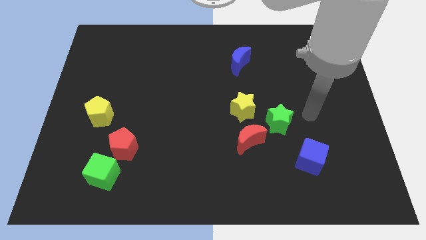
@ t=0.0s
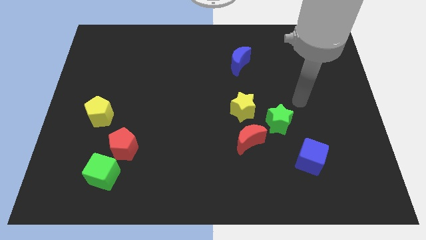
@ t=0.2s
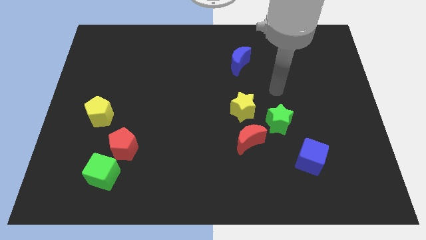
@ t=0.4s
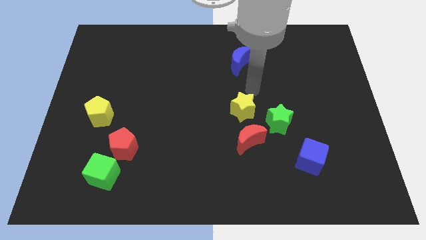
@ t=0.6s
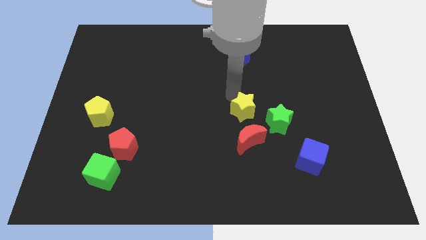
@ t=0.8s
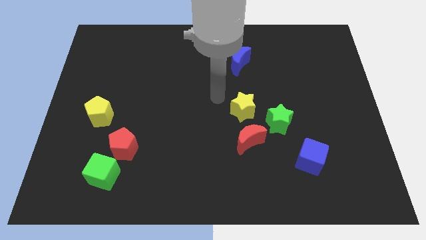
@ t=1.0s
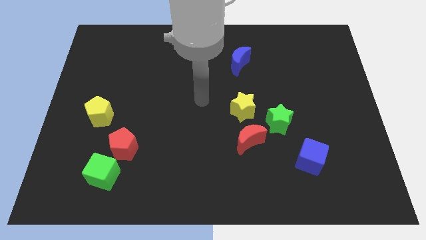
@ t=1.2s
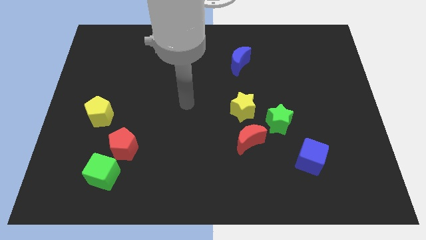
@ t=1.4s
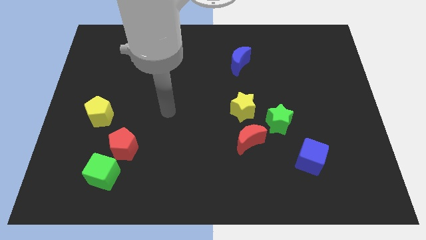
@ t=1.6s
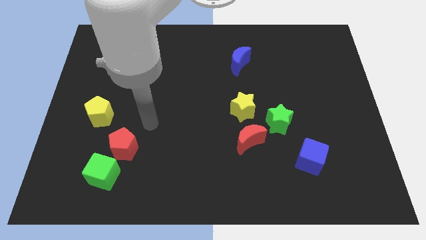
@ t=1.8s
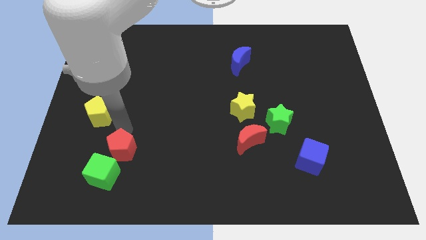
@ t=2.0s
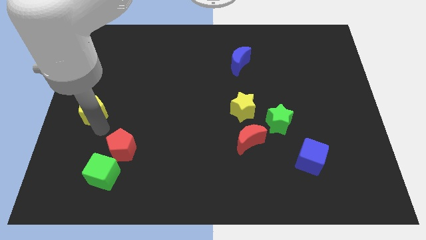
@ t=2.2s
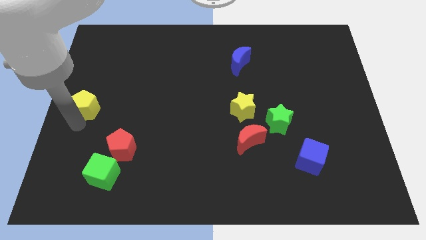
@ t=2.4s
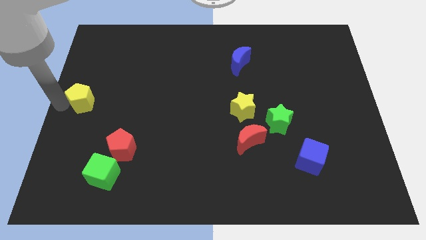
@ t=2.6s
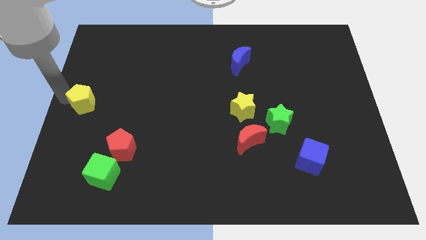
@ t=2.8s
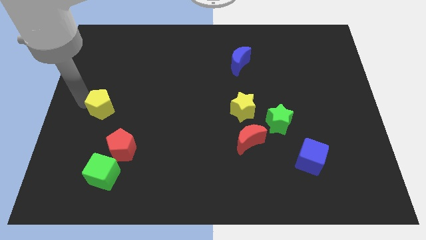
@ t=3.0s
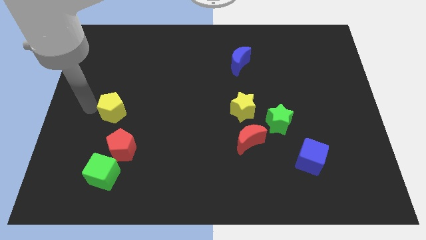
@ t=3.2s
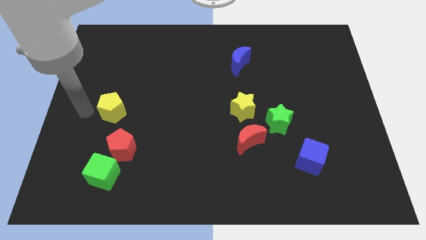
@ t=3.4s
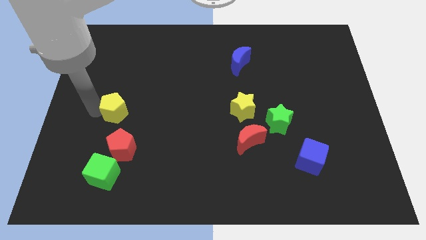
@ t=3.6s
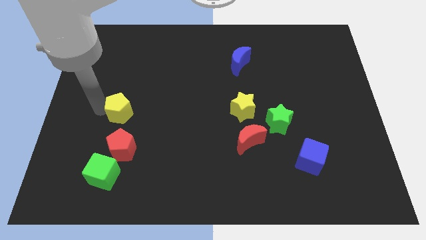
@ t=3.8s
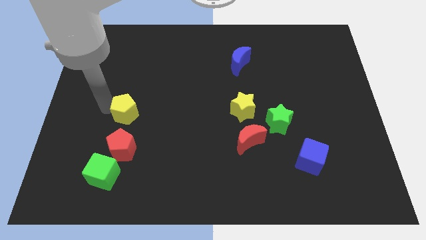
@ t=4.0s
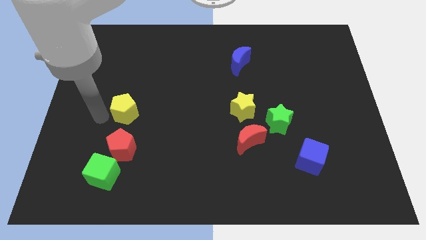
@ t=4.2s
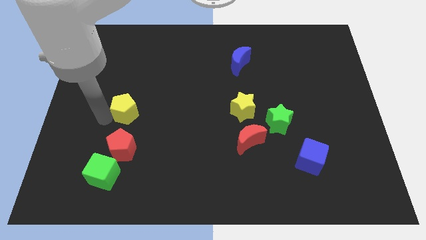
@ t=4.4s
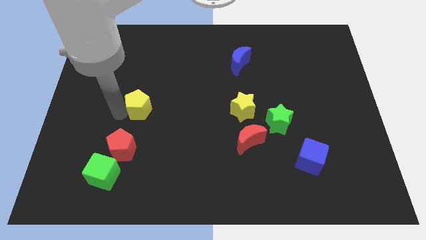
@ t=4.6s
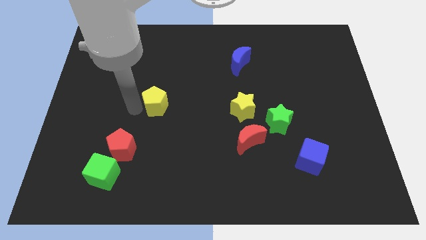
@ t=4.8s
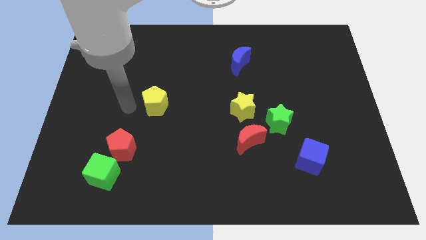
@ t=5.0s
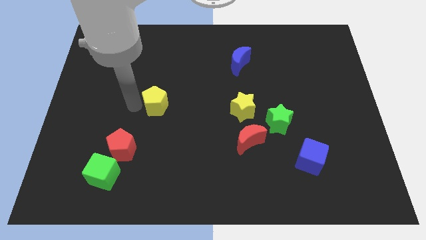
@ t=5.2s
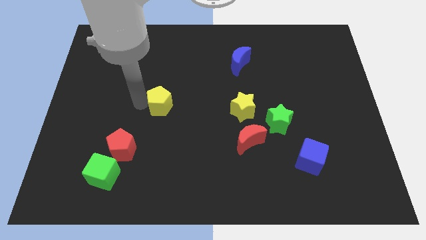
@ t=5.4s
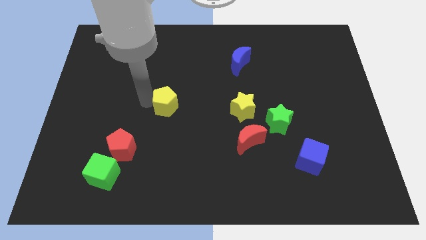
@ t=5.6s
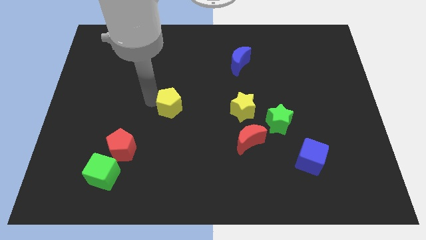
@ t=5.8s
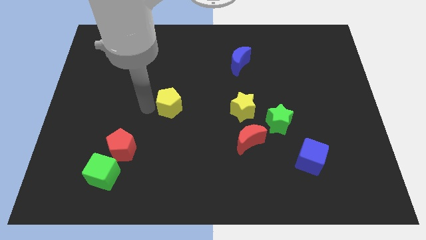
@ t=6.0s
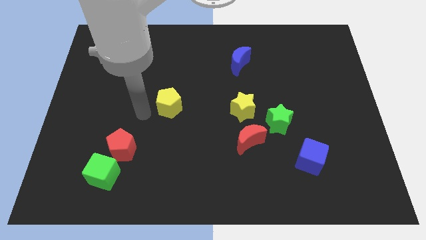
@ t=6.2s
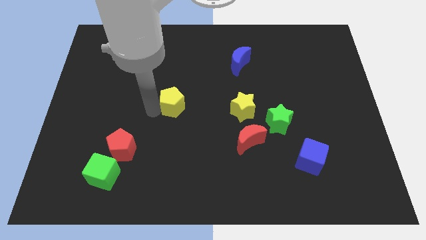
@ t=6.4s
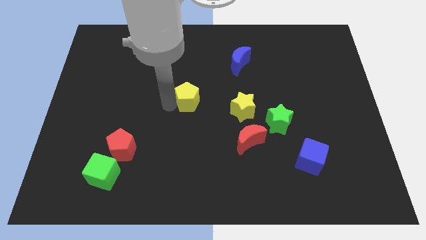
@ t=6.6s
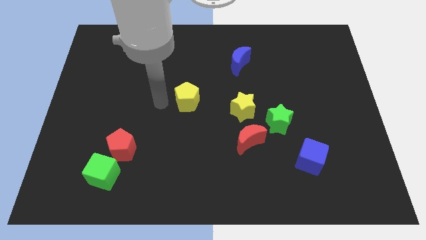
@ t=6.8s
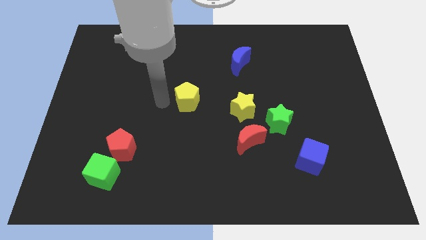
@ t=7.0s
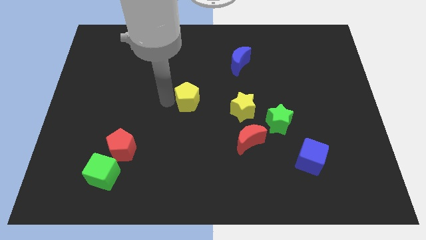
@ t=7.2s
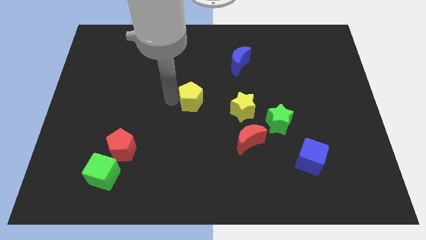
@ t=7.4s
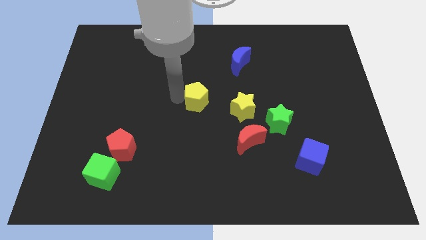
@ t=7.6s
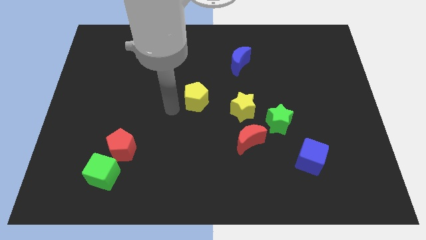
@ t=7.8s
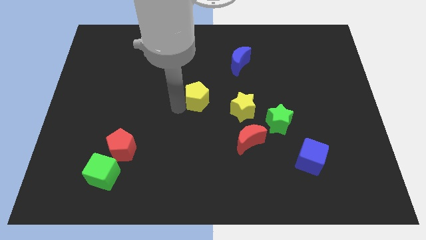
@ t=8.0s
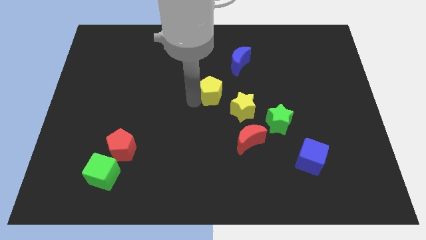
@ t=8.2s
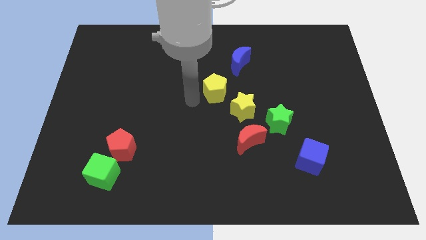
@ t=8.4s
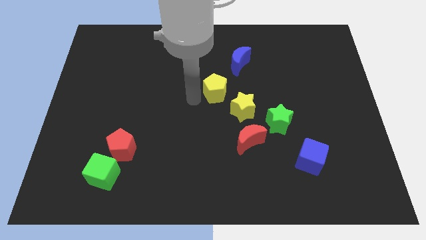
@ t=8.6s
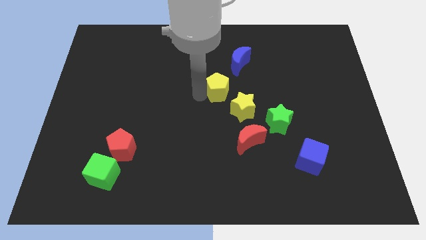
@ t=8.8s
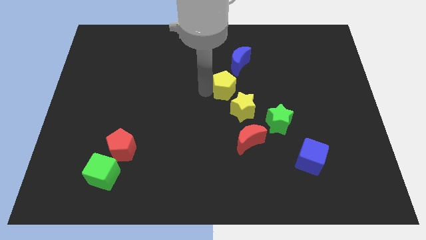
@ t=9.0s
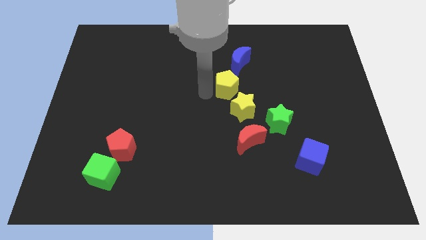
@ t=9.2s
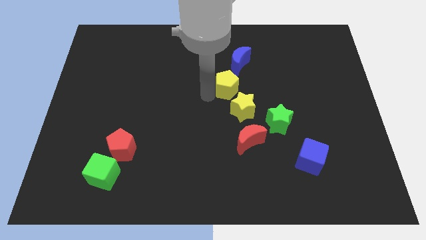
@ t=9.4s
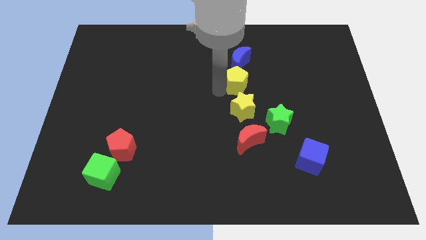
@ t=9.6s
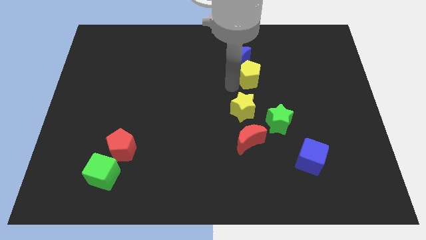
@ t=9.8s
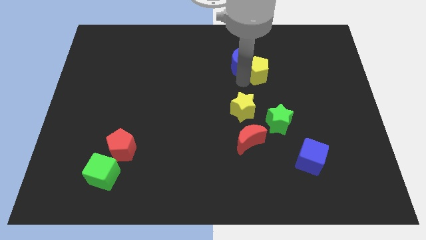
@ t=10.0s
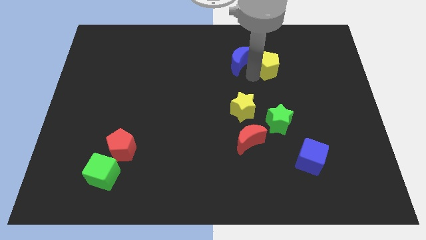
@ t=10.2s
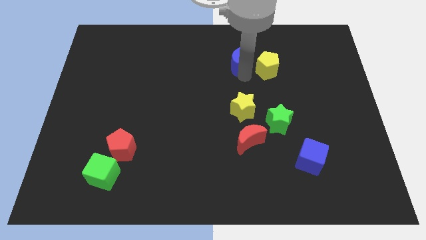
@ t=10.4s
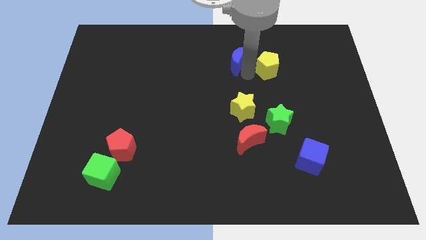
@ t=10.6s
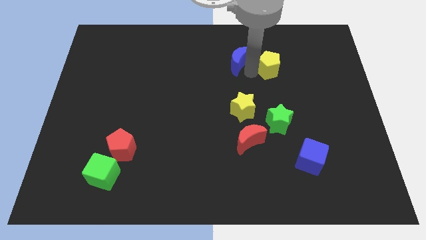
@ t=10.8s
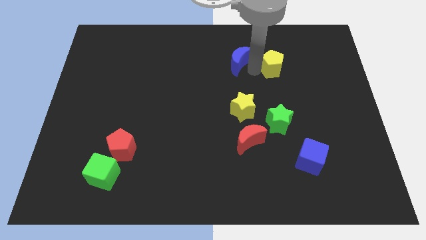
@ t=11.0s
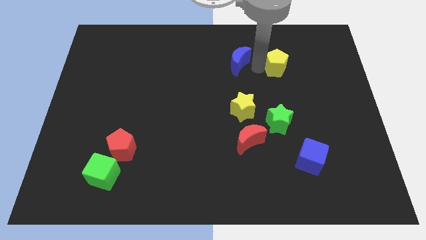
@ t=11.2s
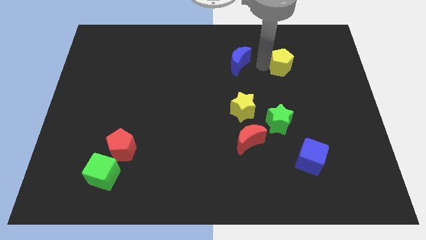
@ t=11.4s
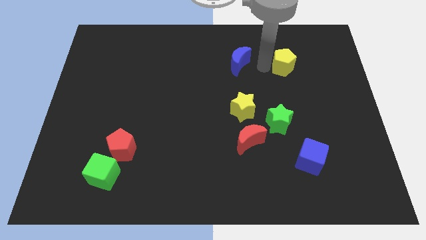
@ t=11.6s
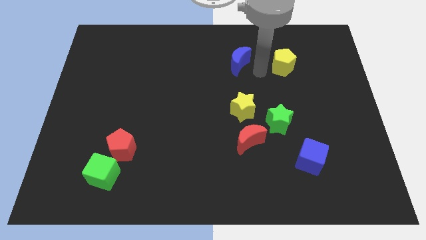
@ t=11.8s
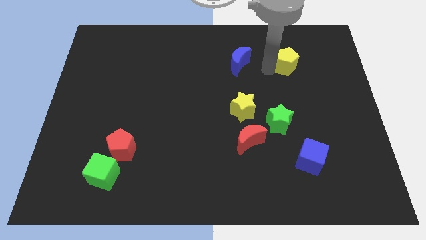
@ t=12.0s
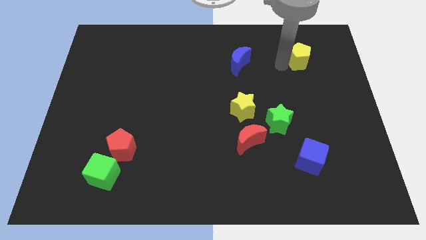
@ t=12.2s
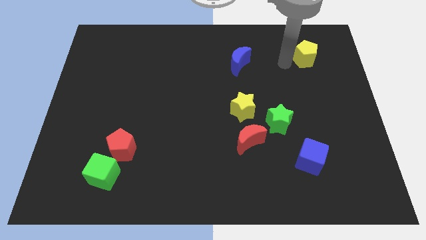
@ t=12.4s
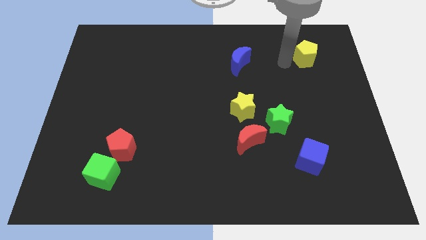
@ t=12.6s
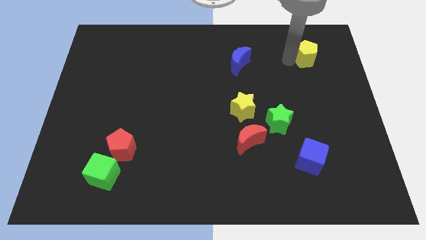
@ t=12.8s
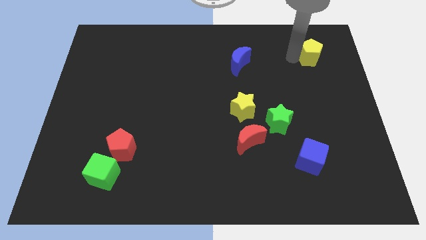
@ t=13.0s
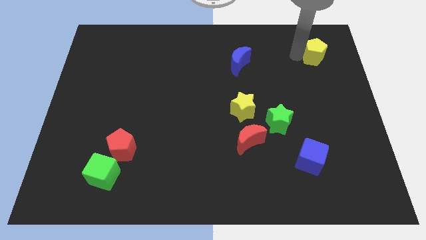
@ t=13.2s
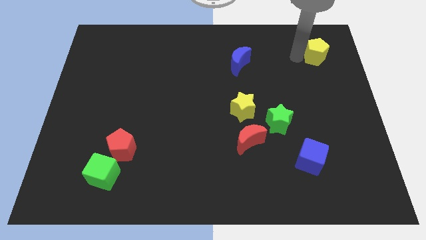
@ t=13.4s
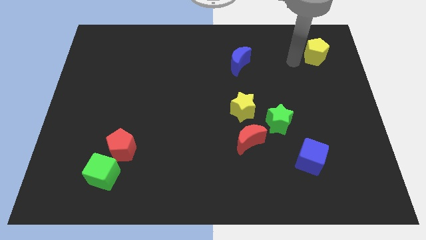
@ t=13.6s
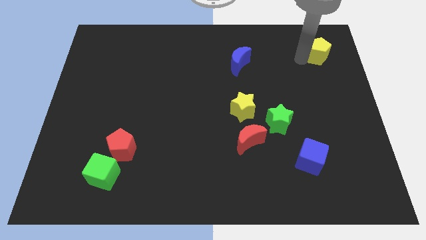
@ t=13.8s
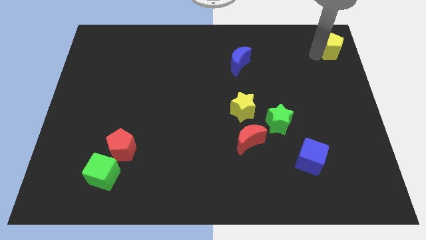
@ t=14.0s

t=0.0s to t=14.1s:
slide the yellow pentagon to the top right
